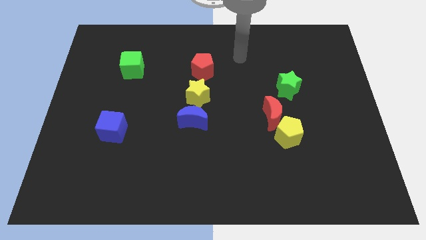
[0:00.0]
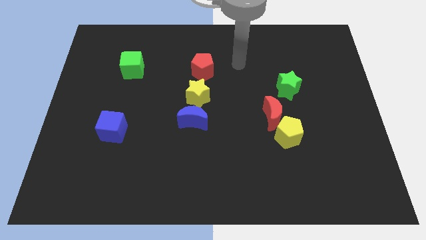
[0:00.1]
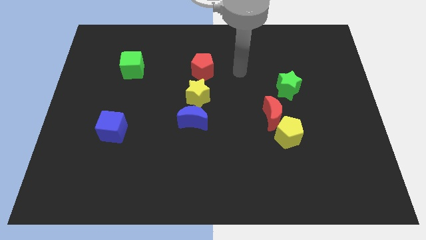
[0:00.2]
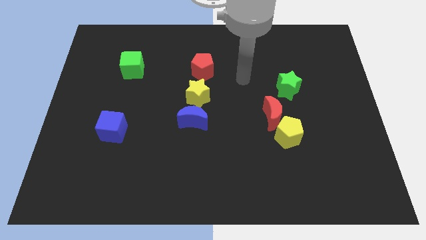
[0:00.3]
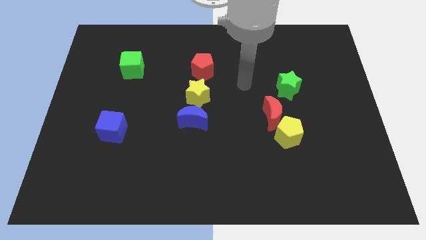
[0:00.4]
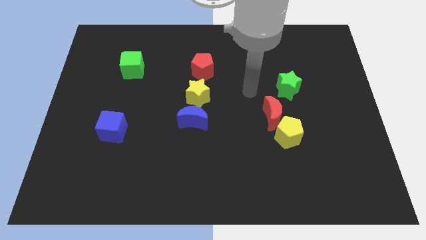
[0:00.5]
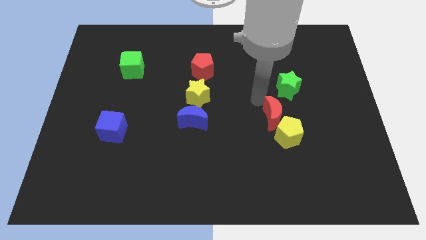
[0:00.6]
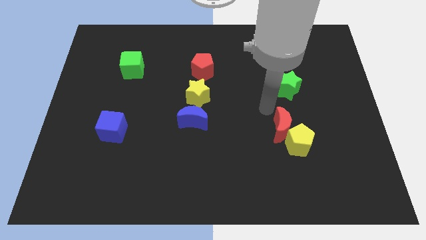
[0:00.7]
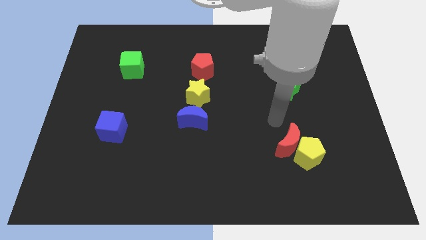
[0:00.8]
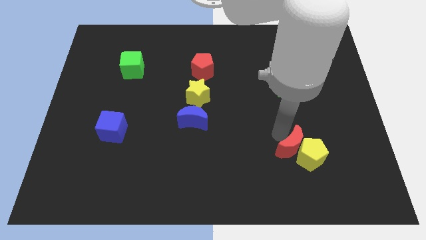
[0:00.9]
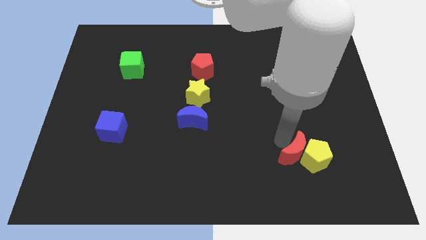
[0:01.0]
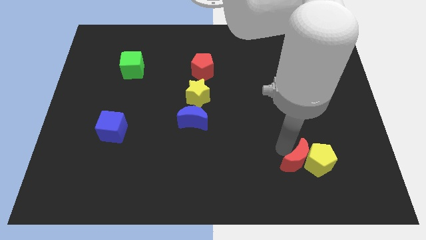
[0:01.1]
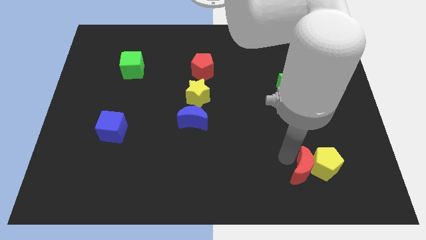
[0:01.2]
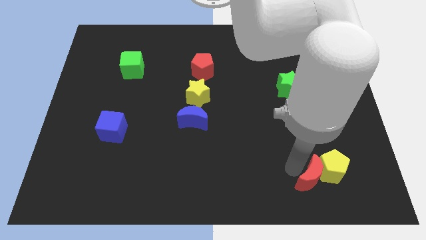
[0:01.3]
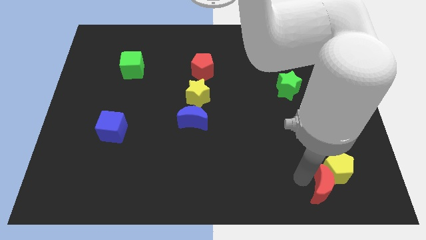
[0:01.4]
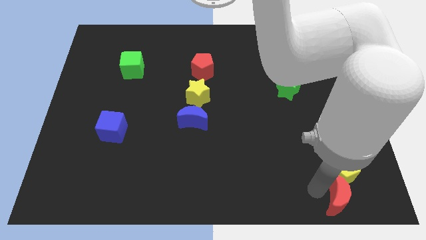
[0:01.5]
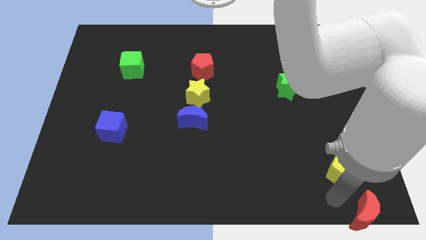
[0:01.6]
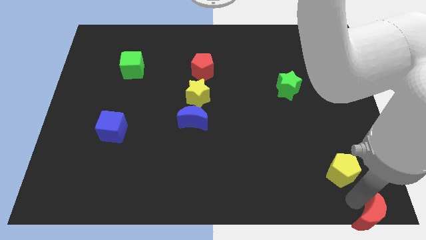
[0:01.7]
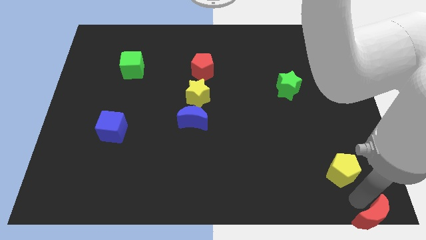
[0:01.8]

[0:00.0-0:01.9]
pull the yellow pentagon apart from the red moon

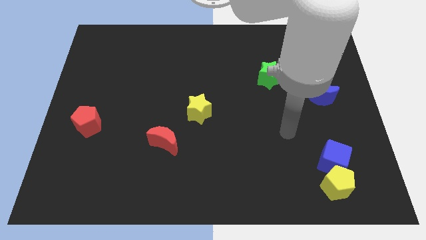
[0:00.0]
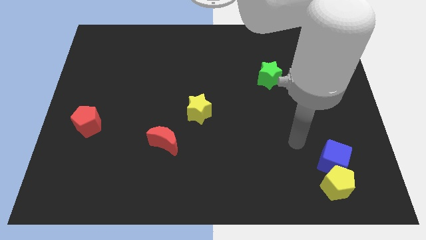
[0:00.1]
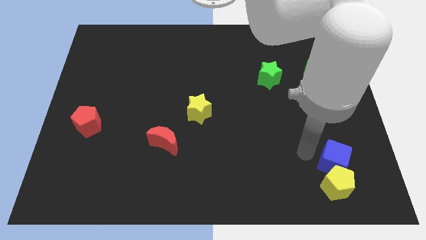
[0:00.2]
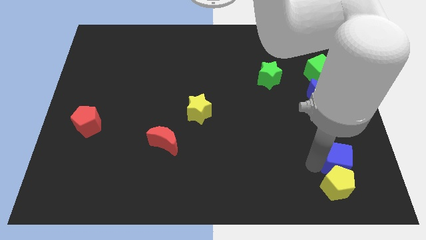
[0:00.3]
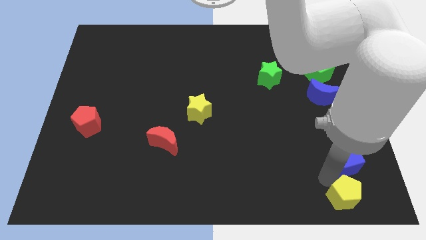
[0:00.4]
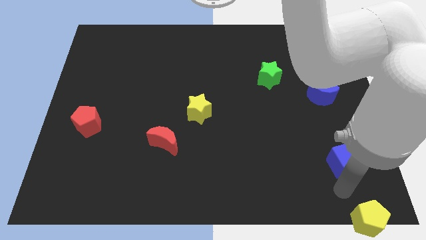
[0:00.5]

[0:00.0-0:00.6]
move the blue cube away from the yellow pentagon

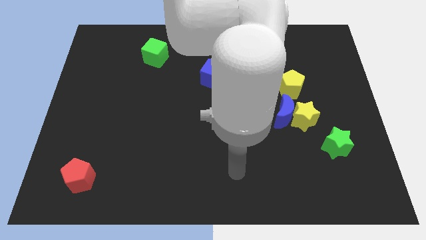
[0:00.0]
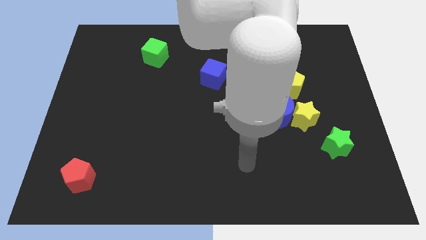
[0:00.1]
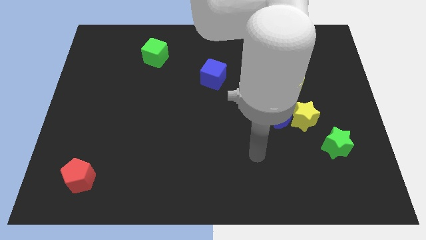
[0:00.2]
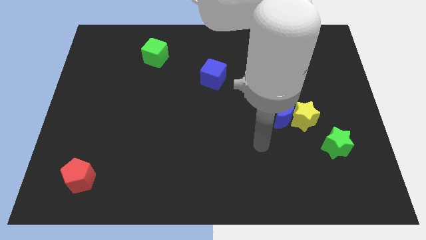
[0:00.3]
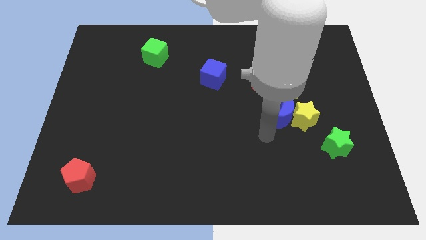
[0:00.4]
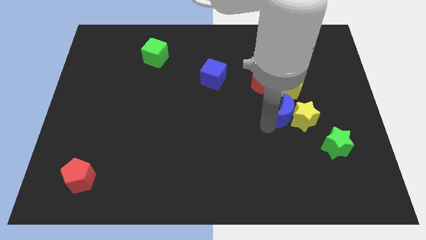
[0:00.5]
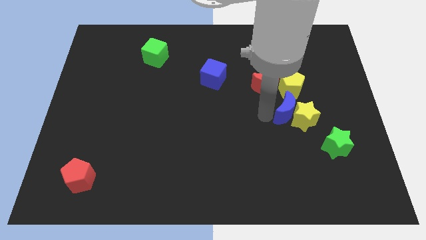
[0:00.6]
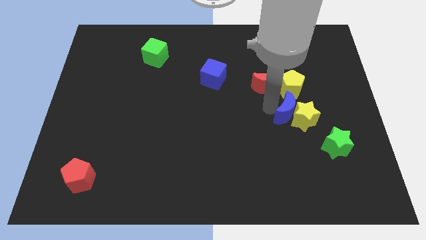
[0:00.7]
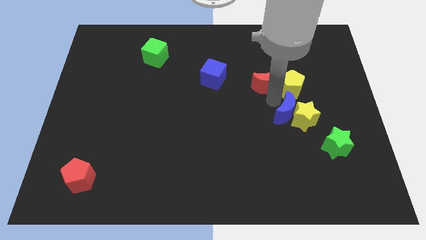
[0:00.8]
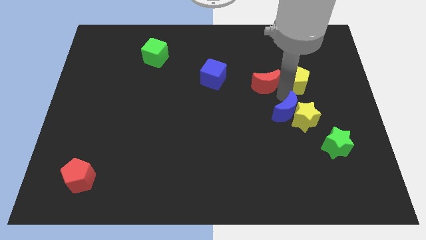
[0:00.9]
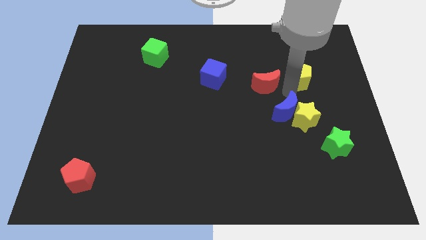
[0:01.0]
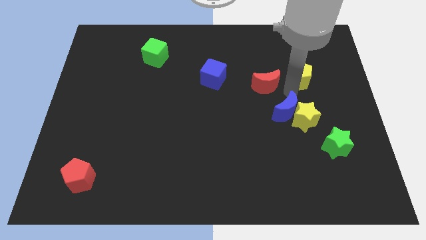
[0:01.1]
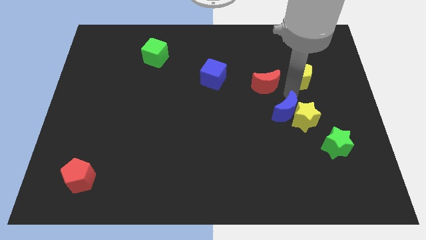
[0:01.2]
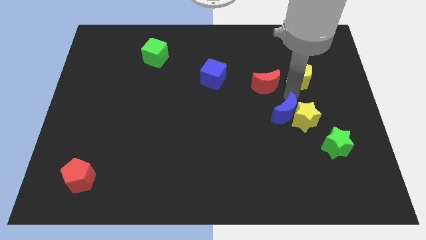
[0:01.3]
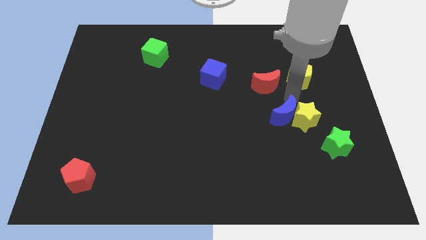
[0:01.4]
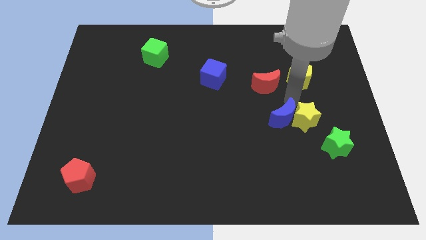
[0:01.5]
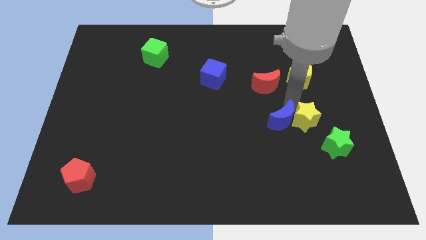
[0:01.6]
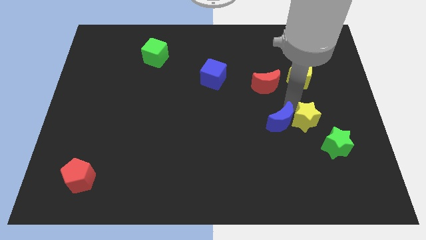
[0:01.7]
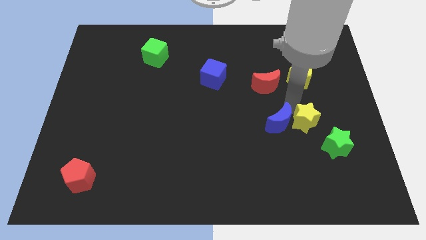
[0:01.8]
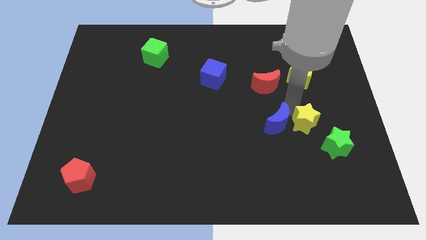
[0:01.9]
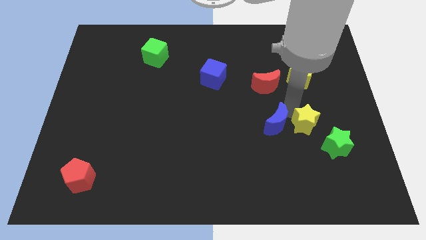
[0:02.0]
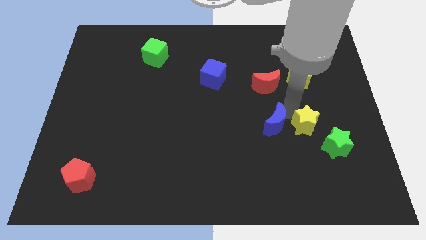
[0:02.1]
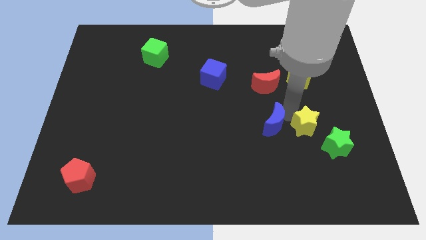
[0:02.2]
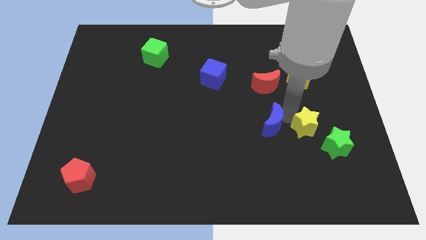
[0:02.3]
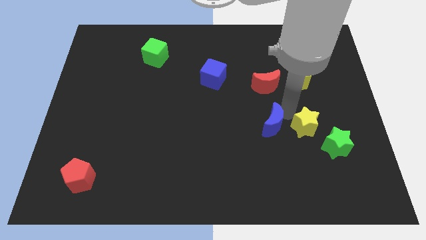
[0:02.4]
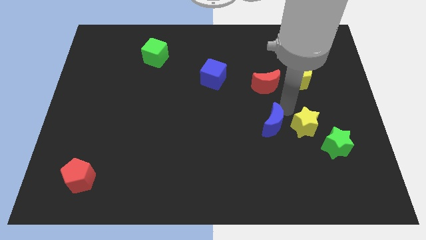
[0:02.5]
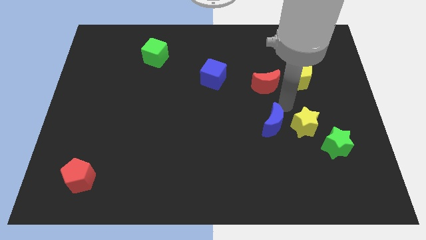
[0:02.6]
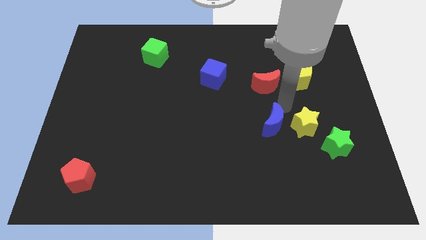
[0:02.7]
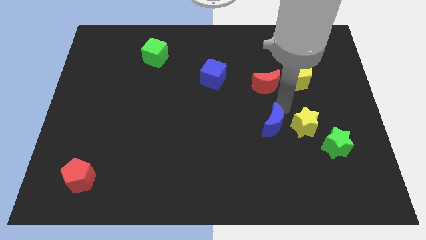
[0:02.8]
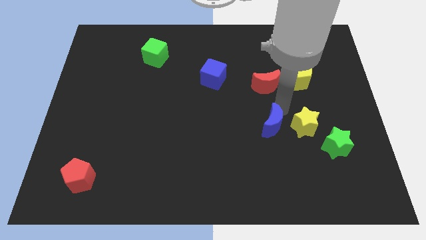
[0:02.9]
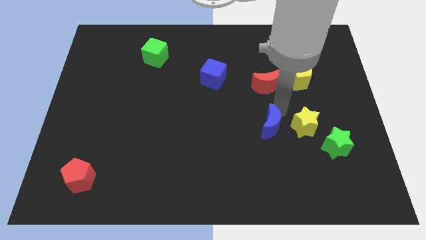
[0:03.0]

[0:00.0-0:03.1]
separate the blue moon from the yellow star, yellow pentagon, and red moon

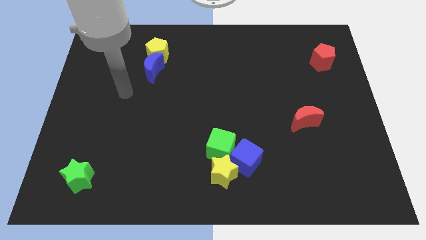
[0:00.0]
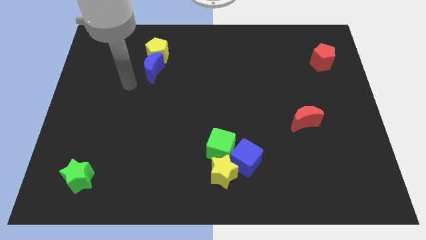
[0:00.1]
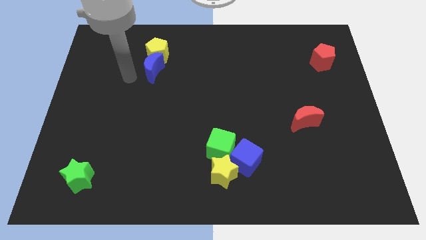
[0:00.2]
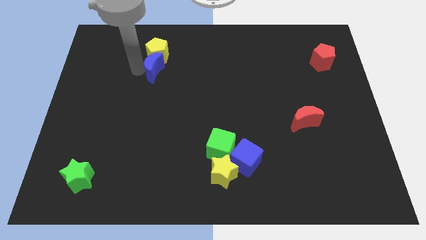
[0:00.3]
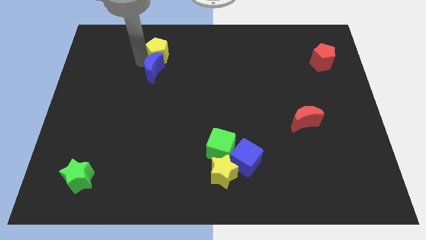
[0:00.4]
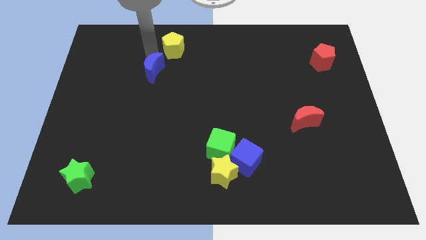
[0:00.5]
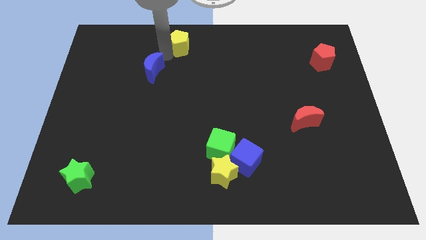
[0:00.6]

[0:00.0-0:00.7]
separate the blue moon from the yellow pentagon

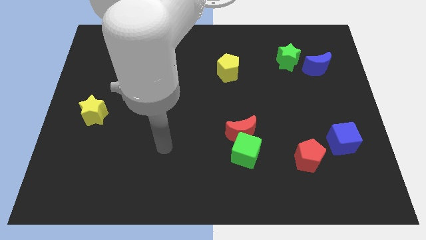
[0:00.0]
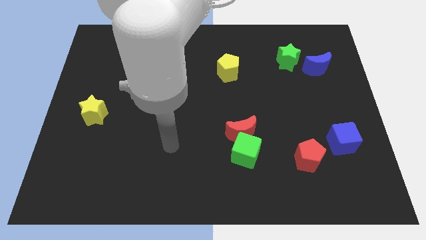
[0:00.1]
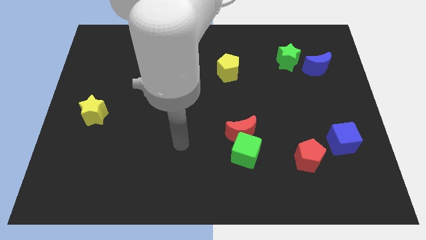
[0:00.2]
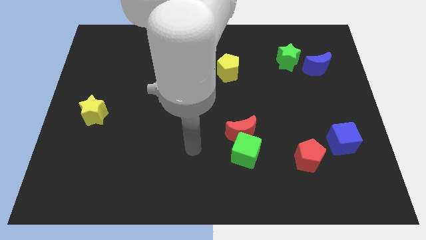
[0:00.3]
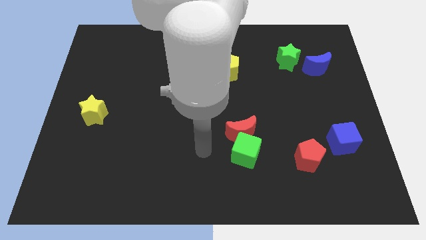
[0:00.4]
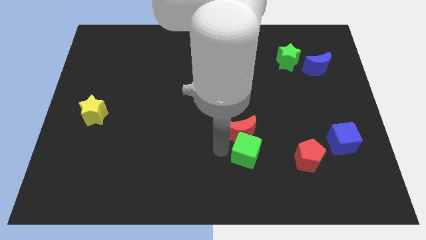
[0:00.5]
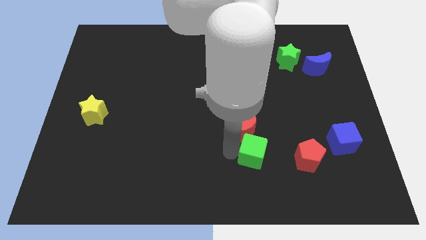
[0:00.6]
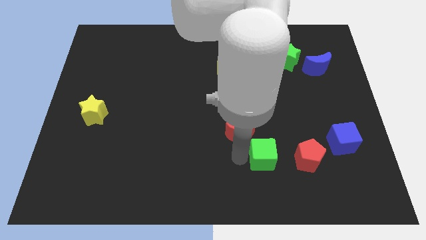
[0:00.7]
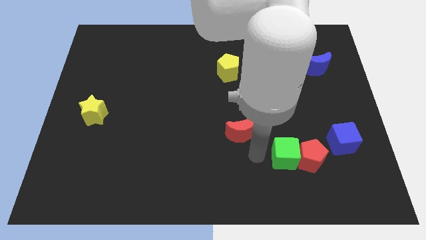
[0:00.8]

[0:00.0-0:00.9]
pull the red moon apart from the green cube

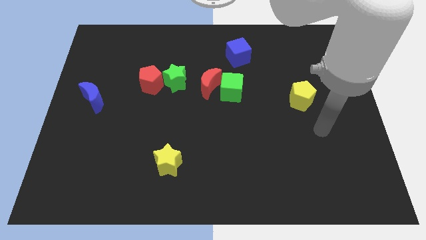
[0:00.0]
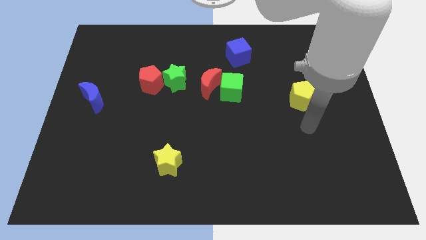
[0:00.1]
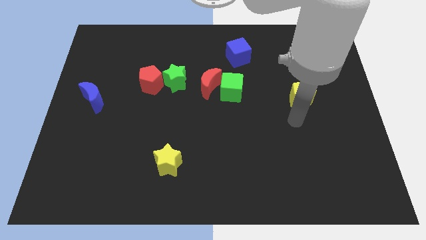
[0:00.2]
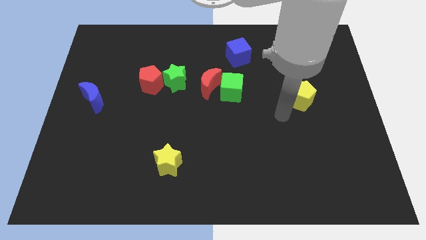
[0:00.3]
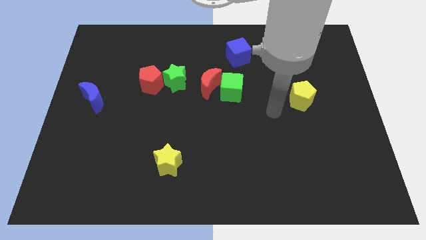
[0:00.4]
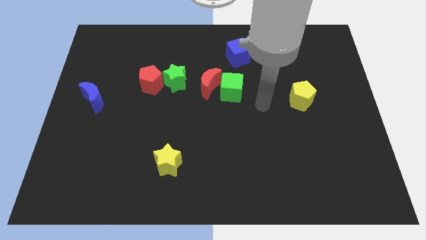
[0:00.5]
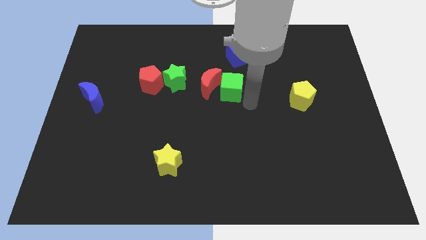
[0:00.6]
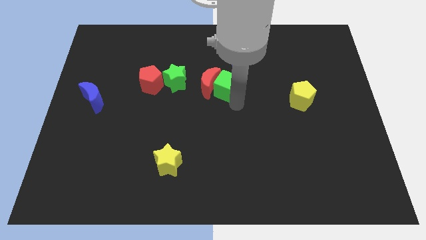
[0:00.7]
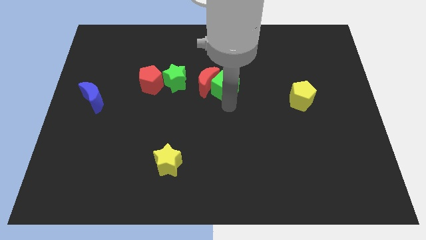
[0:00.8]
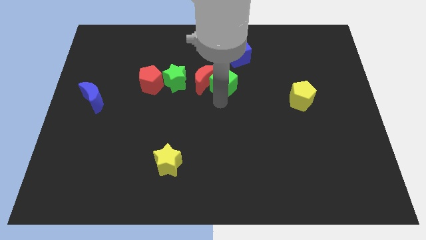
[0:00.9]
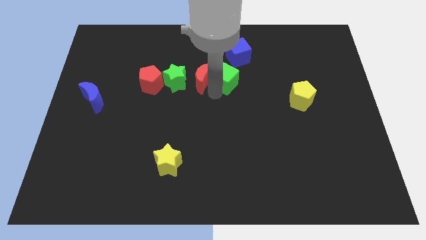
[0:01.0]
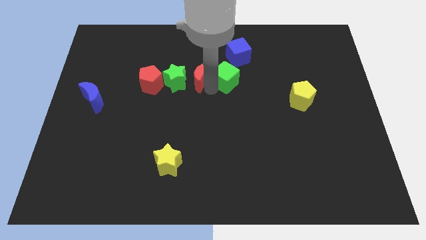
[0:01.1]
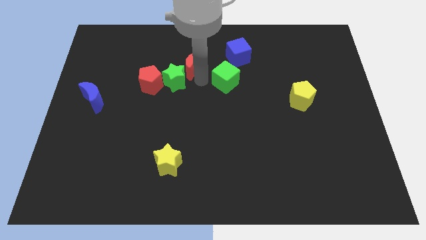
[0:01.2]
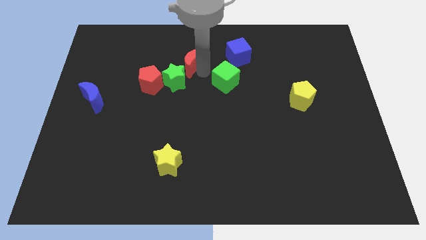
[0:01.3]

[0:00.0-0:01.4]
move the green cube away from the red moon

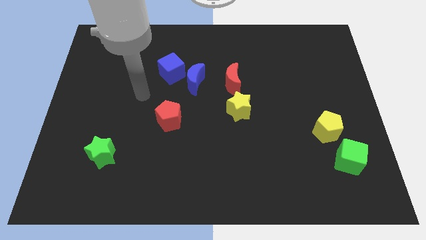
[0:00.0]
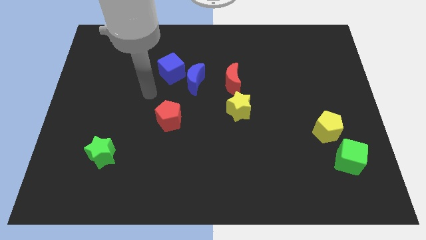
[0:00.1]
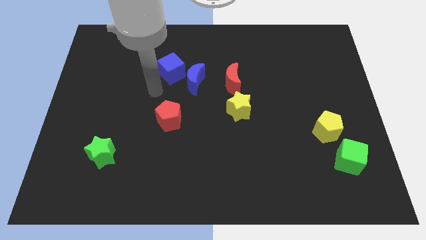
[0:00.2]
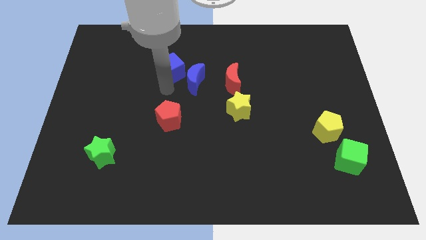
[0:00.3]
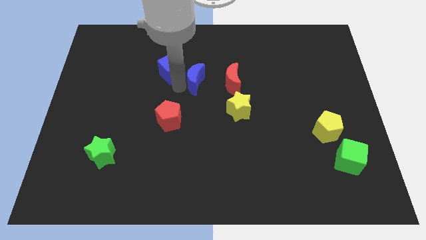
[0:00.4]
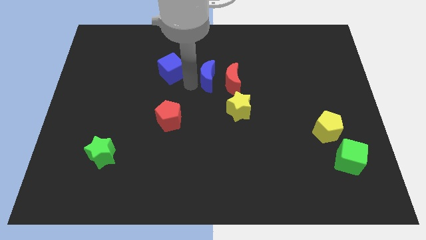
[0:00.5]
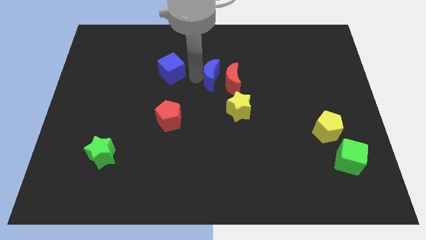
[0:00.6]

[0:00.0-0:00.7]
pull the blue cube apart from the blue moon
